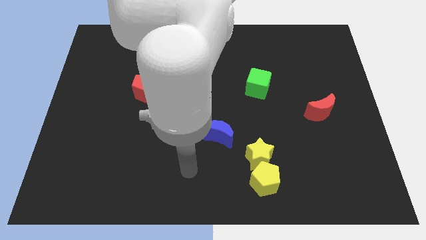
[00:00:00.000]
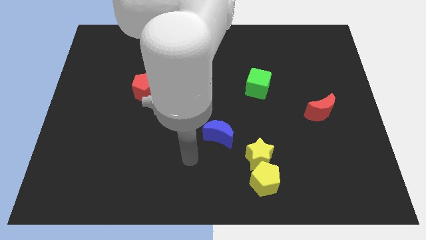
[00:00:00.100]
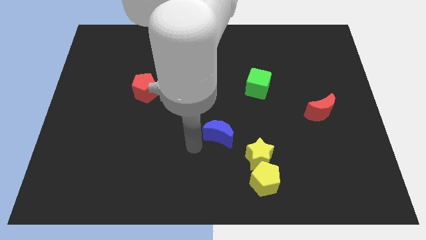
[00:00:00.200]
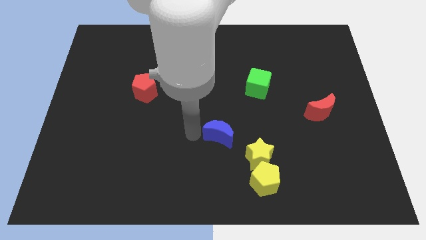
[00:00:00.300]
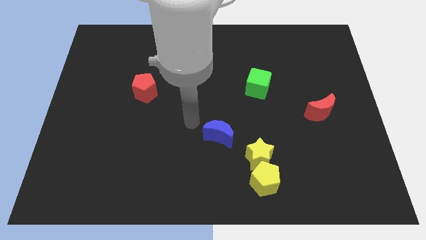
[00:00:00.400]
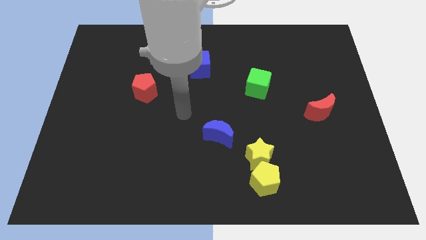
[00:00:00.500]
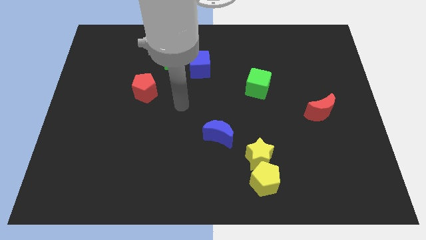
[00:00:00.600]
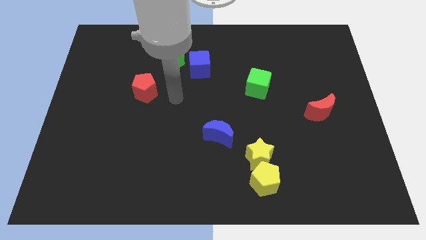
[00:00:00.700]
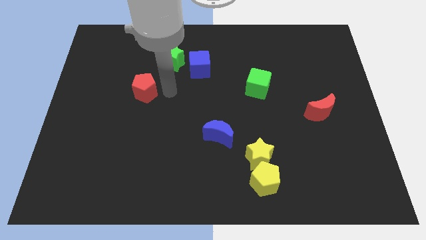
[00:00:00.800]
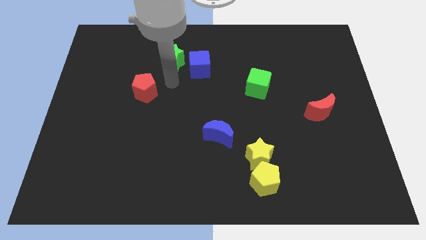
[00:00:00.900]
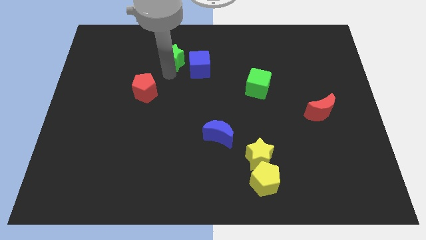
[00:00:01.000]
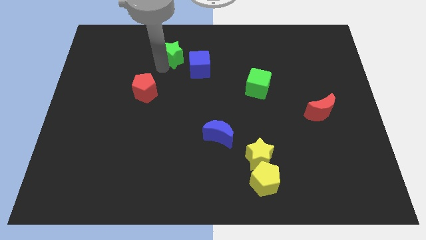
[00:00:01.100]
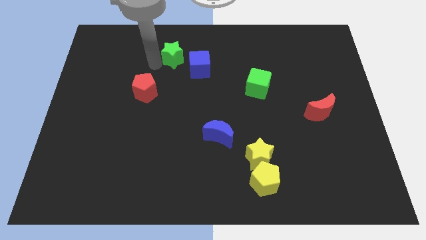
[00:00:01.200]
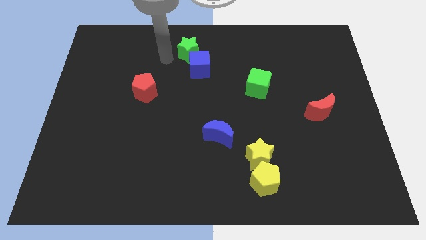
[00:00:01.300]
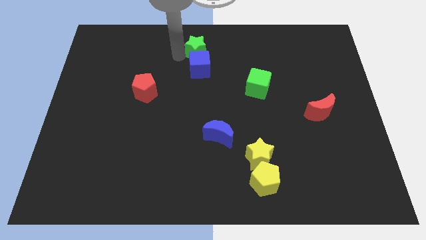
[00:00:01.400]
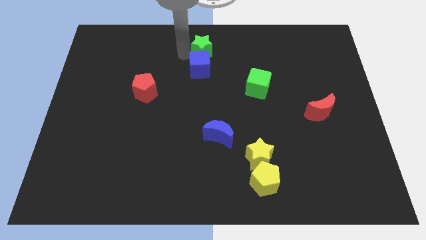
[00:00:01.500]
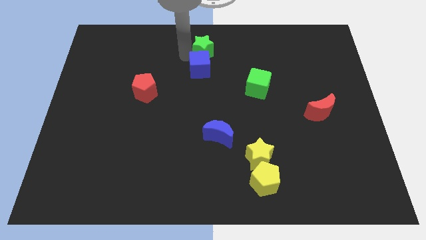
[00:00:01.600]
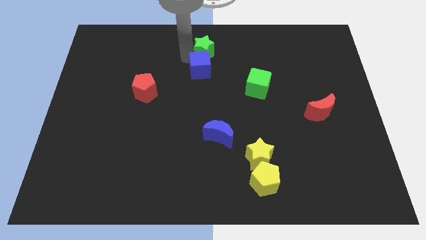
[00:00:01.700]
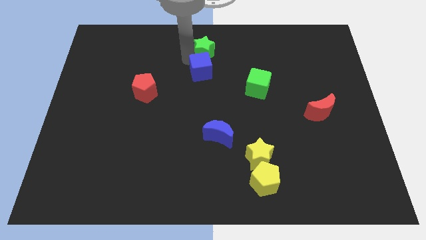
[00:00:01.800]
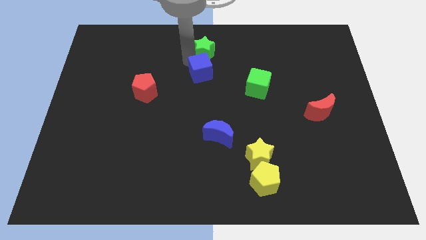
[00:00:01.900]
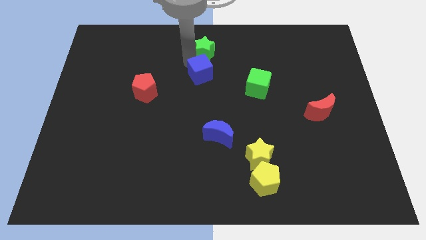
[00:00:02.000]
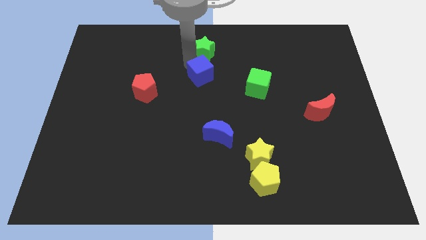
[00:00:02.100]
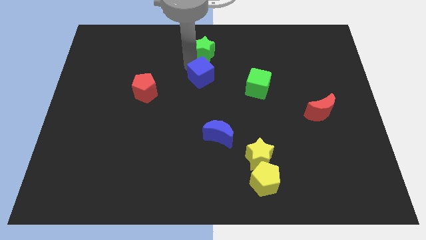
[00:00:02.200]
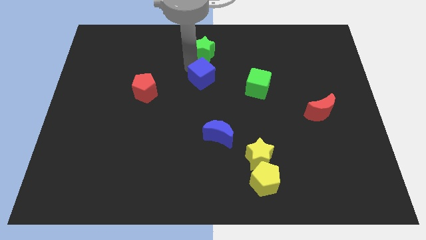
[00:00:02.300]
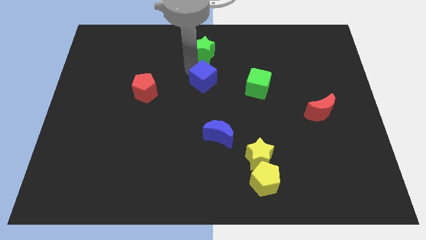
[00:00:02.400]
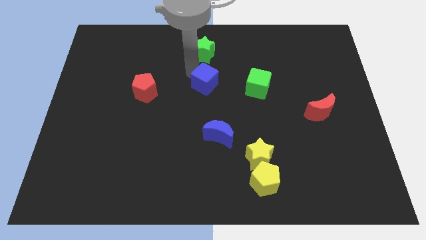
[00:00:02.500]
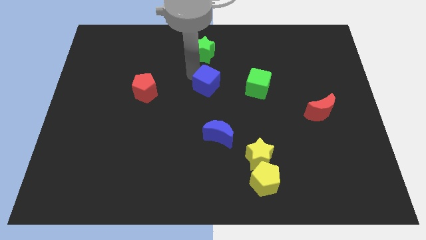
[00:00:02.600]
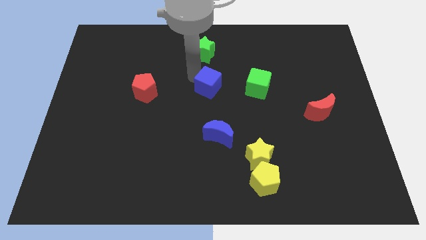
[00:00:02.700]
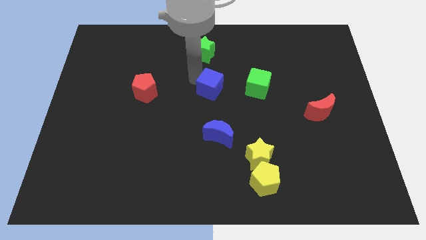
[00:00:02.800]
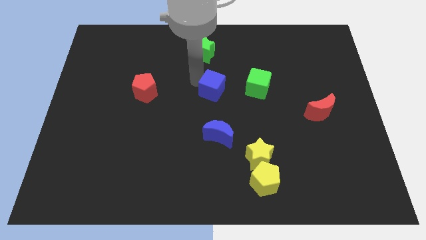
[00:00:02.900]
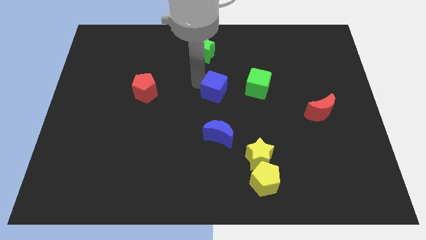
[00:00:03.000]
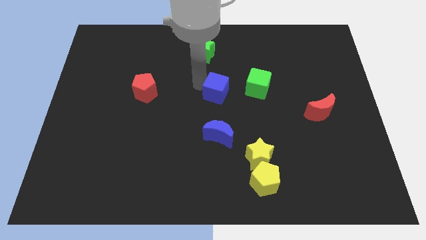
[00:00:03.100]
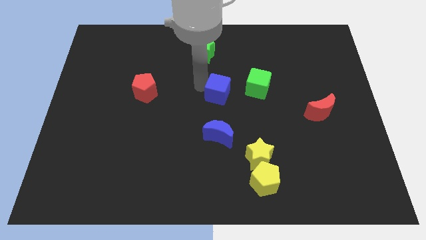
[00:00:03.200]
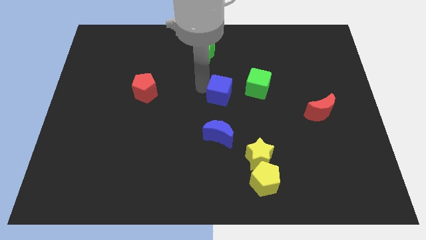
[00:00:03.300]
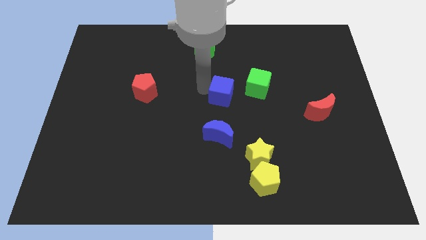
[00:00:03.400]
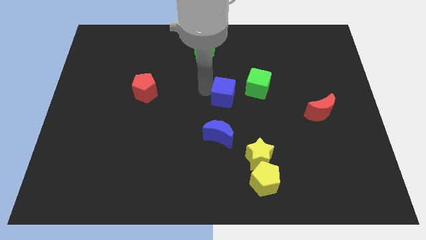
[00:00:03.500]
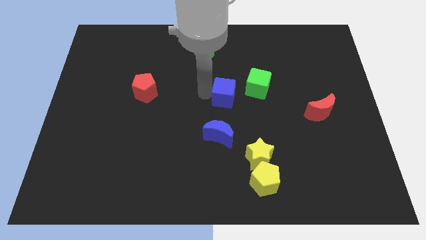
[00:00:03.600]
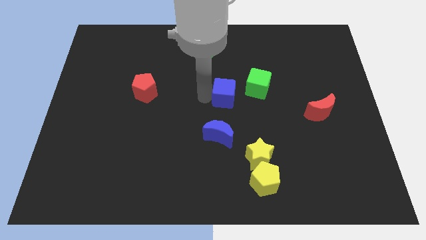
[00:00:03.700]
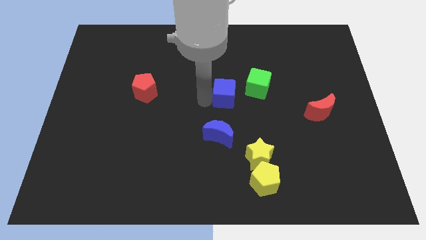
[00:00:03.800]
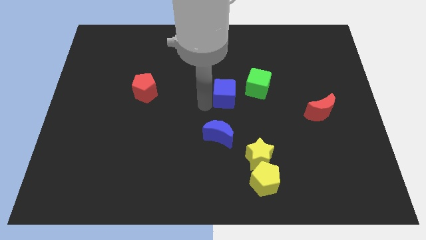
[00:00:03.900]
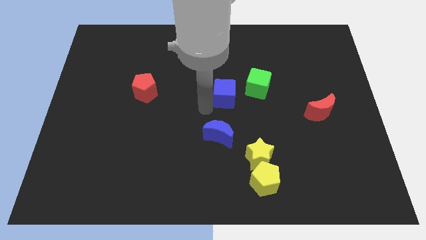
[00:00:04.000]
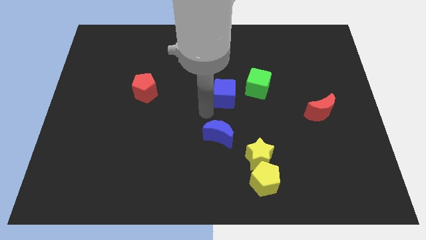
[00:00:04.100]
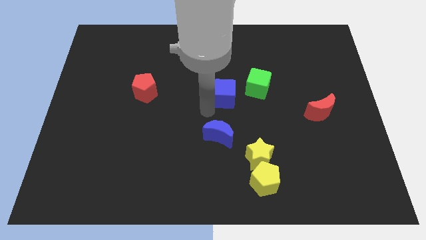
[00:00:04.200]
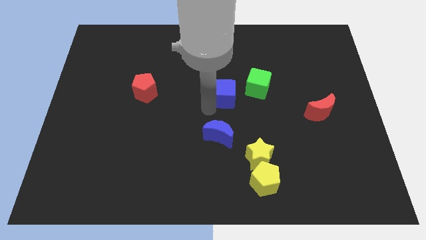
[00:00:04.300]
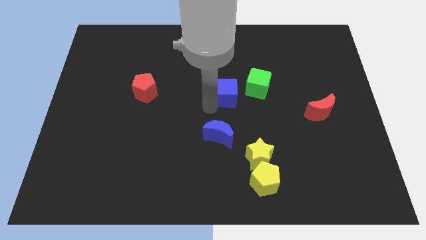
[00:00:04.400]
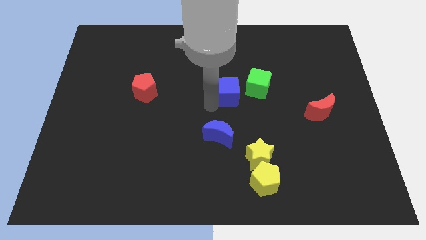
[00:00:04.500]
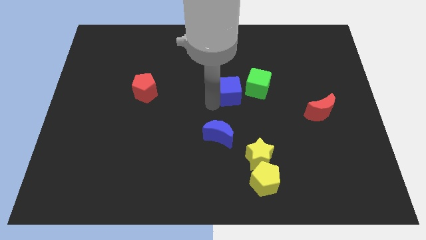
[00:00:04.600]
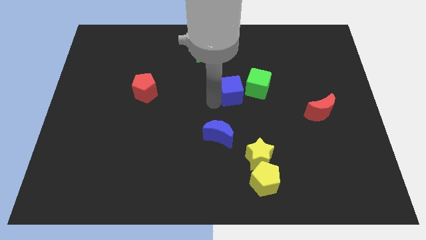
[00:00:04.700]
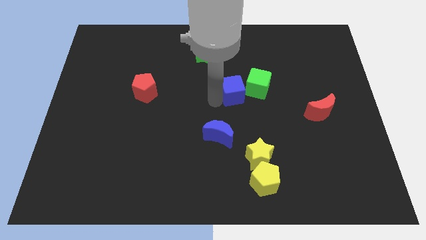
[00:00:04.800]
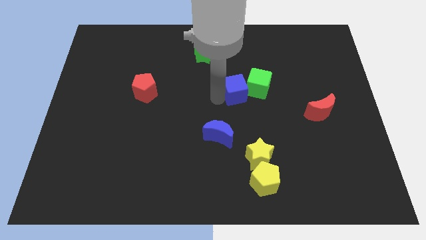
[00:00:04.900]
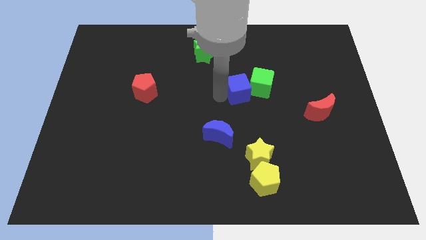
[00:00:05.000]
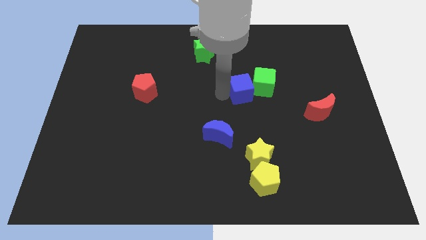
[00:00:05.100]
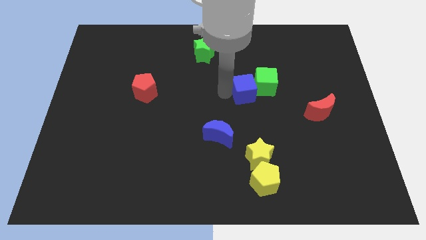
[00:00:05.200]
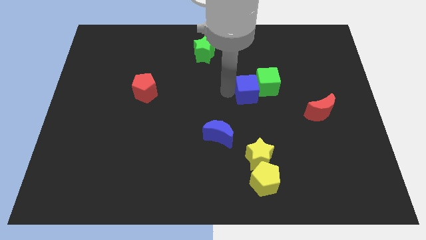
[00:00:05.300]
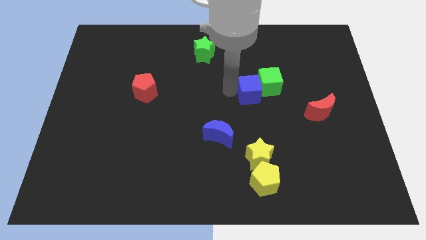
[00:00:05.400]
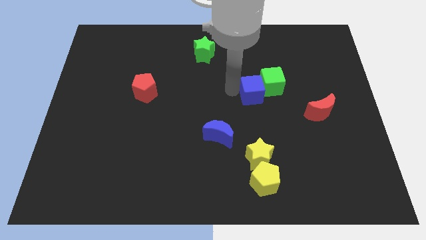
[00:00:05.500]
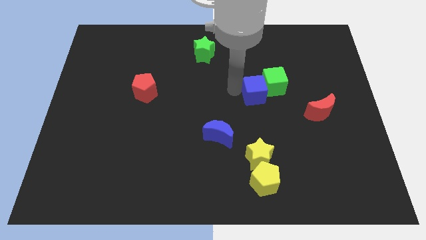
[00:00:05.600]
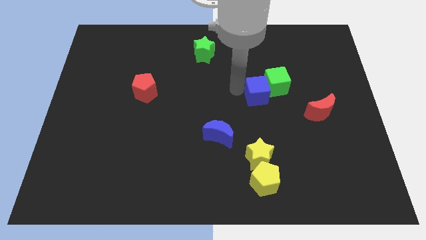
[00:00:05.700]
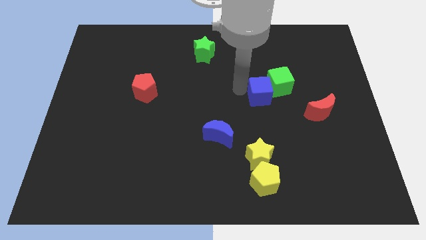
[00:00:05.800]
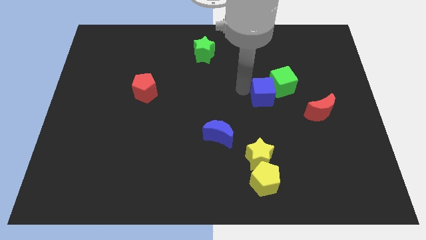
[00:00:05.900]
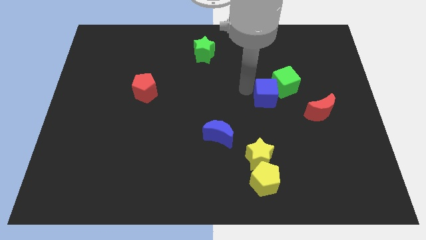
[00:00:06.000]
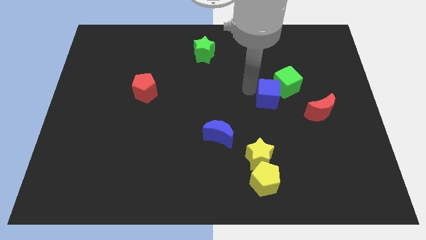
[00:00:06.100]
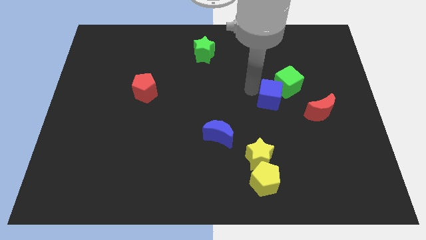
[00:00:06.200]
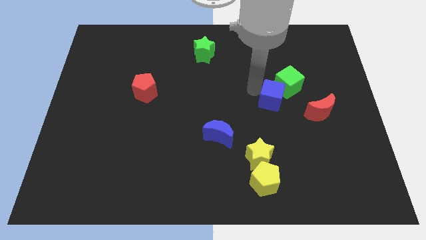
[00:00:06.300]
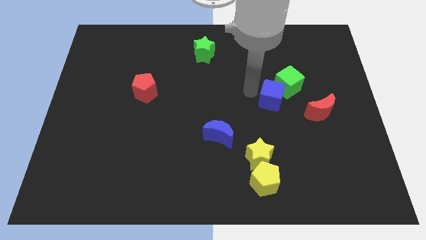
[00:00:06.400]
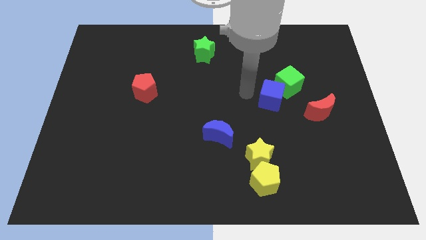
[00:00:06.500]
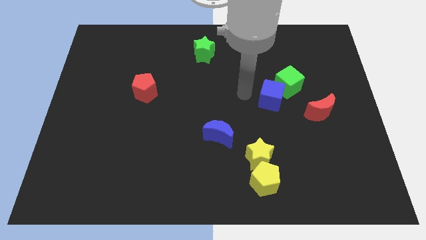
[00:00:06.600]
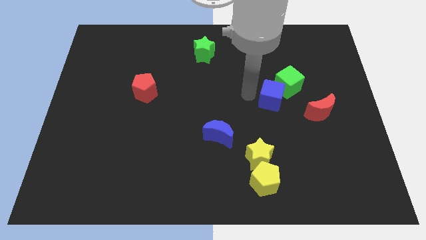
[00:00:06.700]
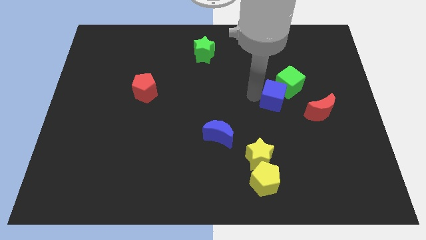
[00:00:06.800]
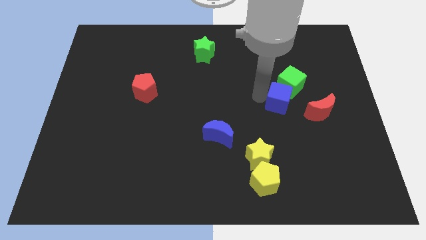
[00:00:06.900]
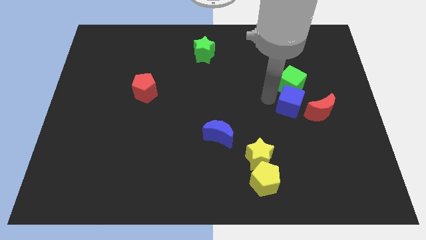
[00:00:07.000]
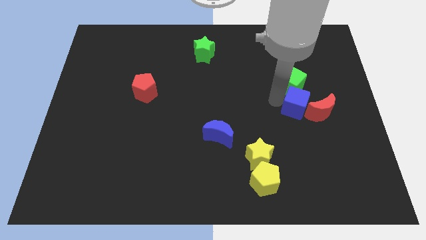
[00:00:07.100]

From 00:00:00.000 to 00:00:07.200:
slide the blue cube to the red moon
